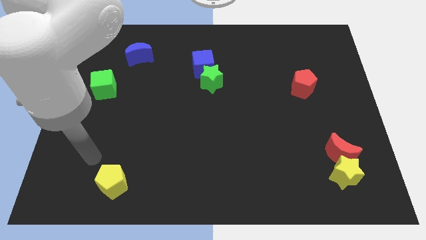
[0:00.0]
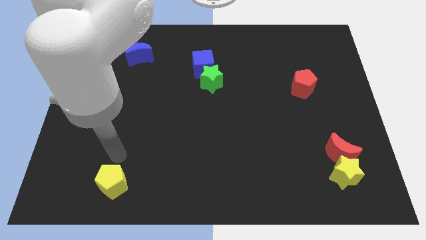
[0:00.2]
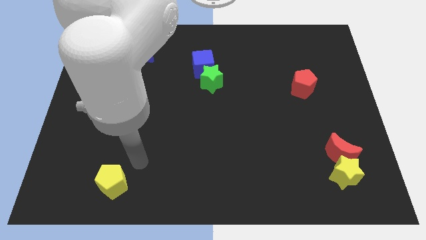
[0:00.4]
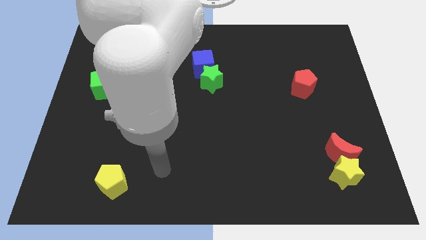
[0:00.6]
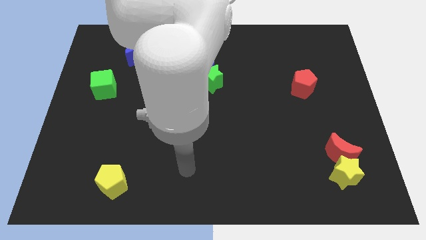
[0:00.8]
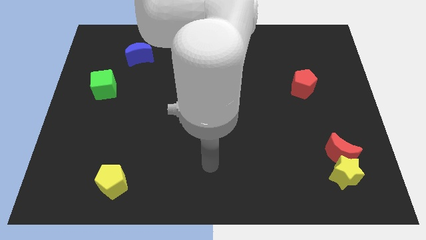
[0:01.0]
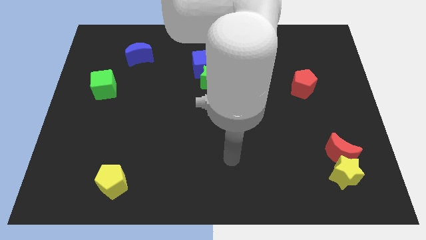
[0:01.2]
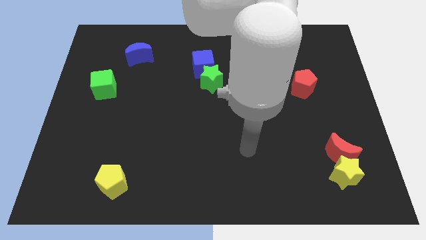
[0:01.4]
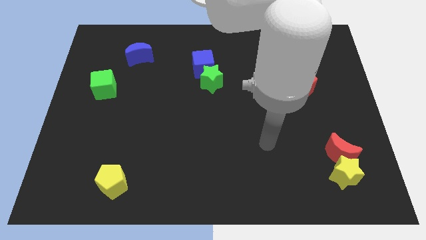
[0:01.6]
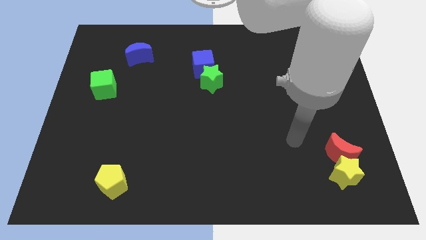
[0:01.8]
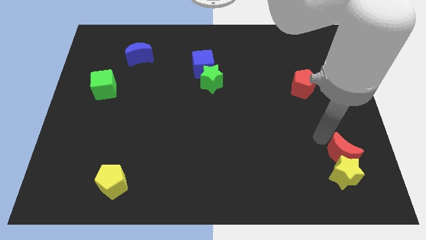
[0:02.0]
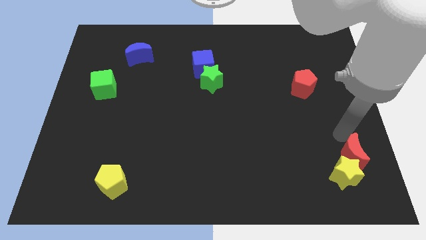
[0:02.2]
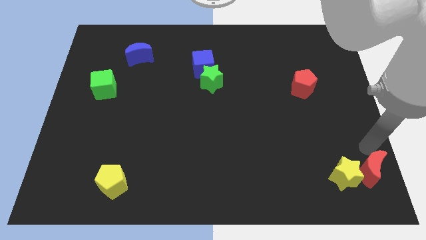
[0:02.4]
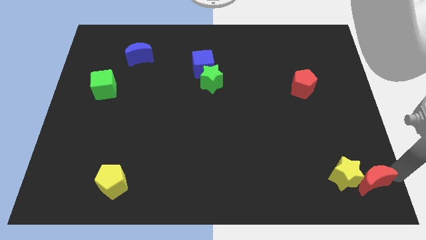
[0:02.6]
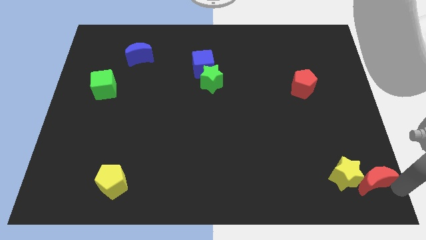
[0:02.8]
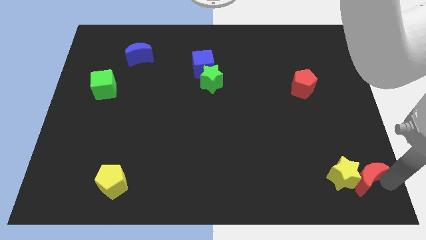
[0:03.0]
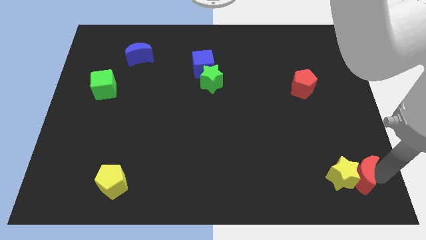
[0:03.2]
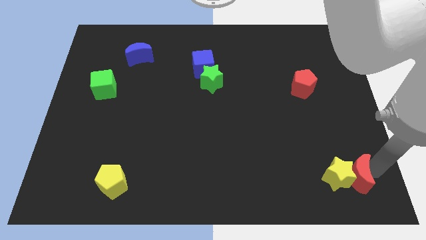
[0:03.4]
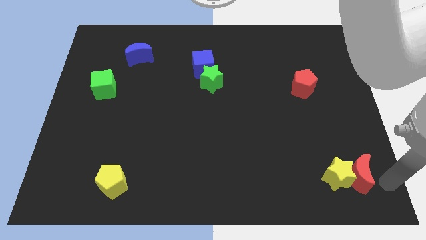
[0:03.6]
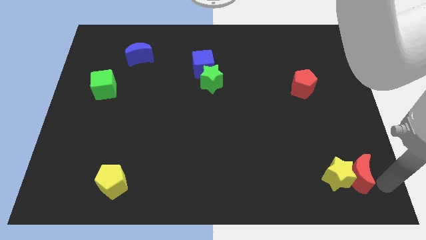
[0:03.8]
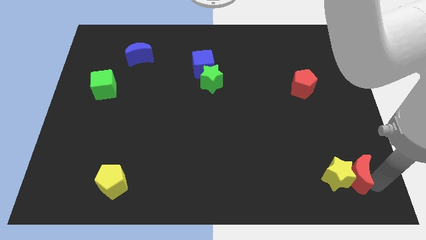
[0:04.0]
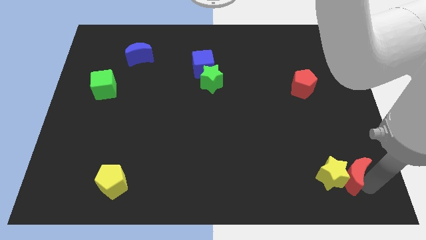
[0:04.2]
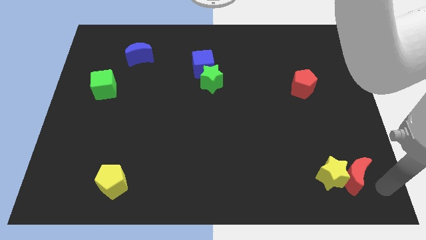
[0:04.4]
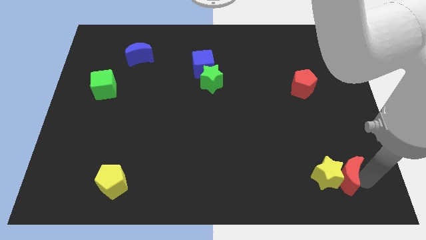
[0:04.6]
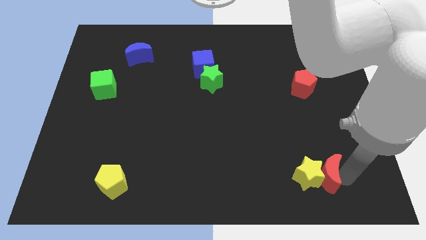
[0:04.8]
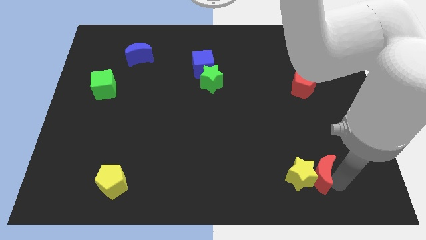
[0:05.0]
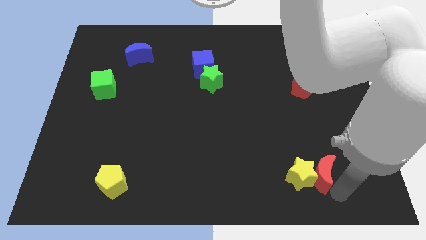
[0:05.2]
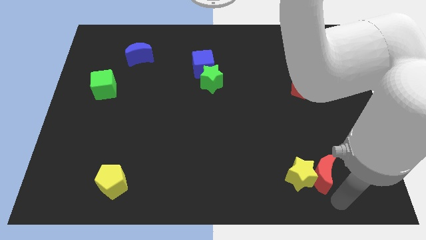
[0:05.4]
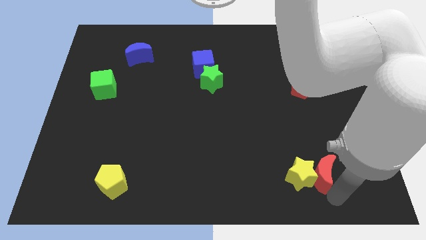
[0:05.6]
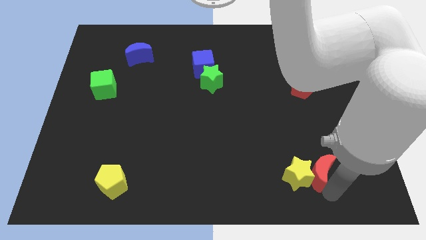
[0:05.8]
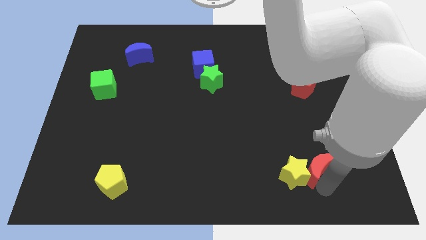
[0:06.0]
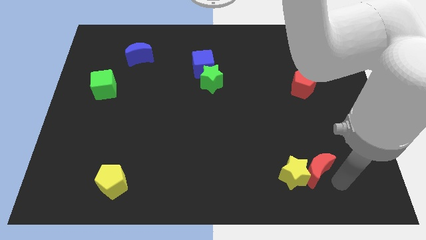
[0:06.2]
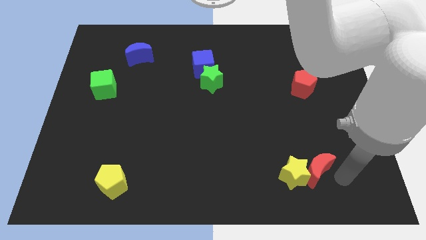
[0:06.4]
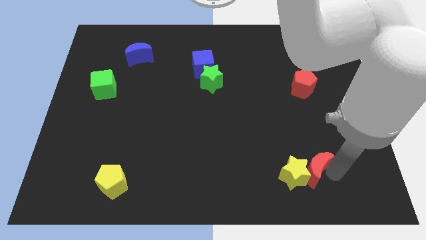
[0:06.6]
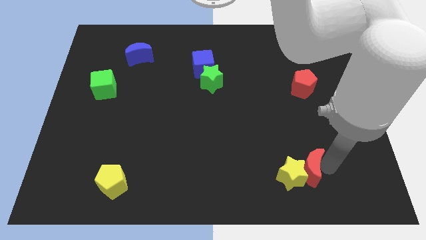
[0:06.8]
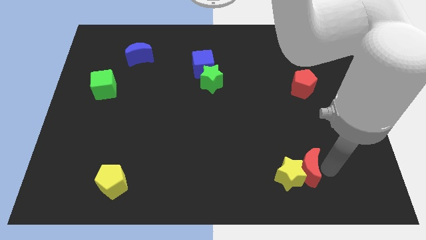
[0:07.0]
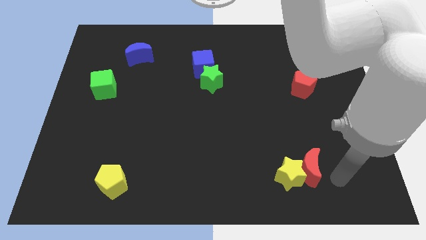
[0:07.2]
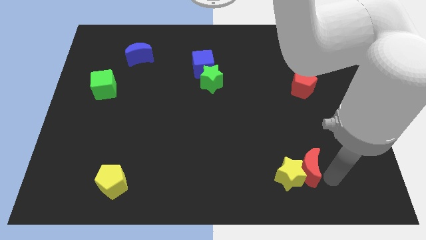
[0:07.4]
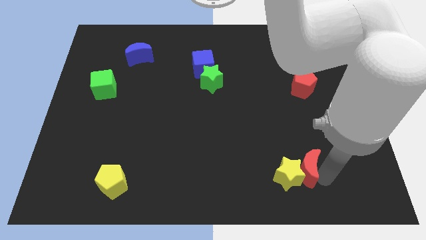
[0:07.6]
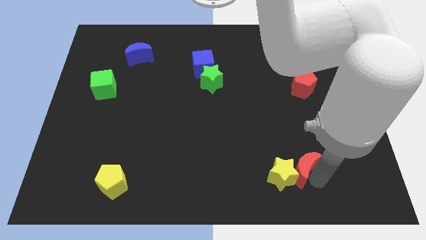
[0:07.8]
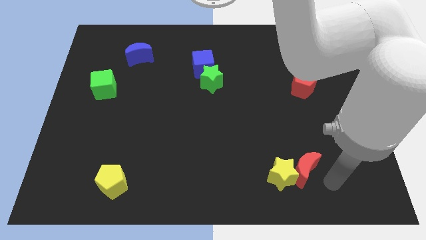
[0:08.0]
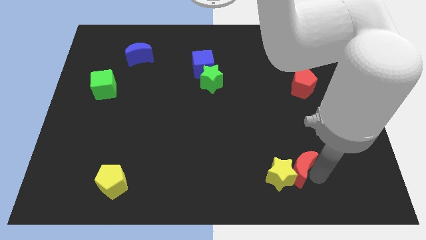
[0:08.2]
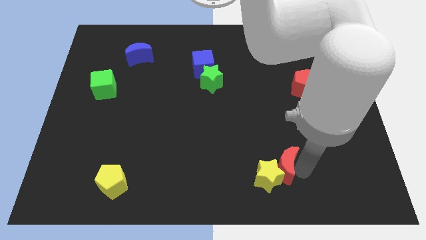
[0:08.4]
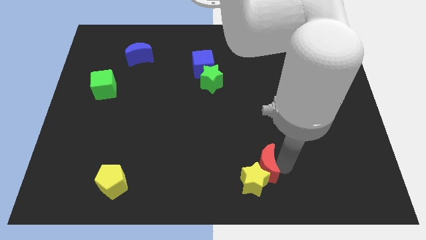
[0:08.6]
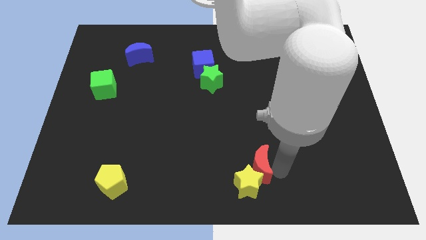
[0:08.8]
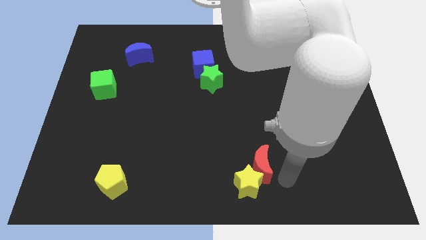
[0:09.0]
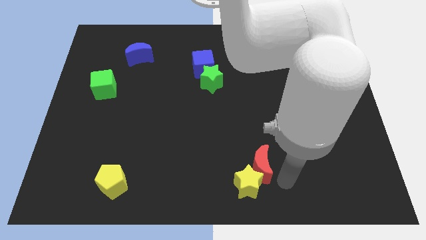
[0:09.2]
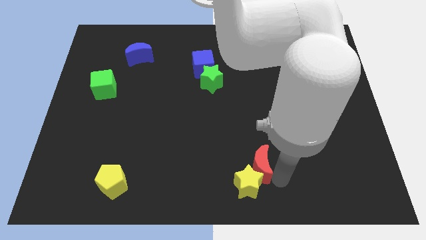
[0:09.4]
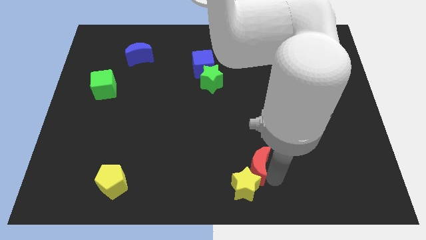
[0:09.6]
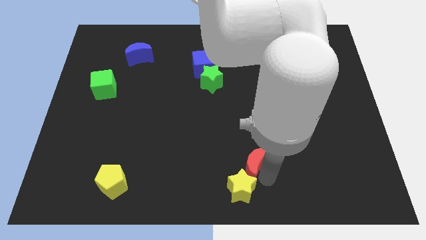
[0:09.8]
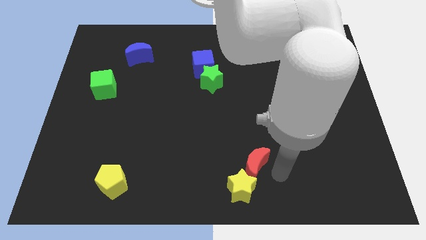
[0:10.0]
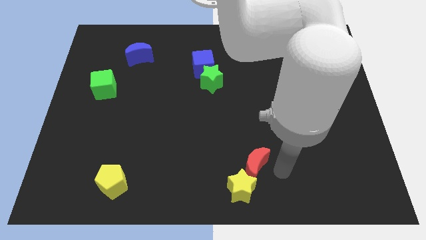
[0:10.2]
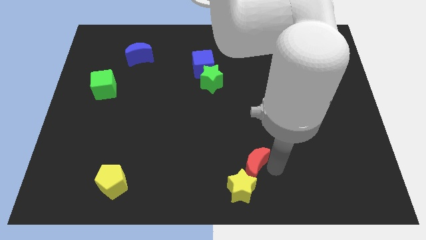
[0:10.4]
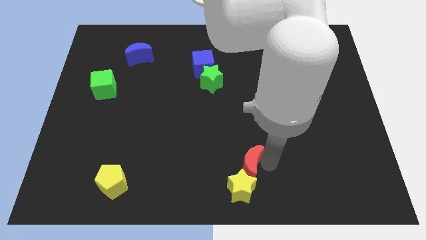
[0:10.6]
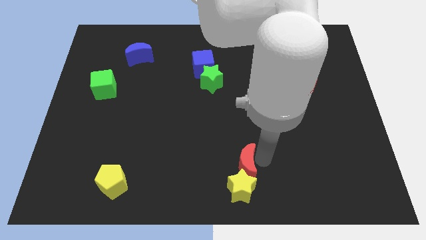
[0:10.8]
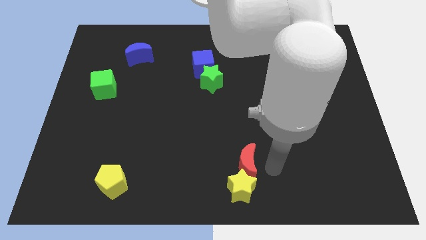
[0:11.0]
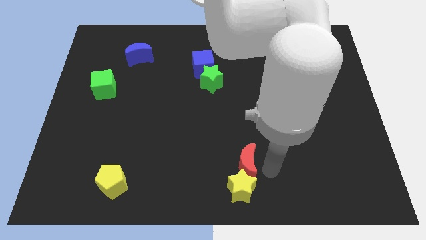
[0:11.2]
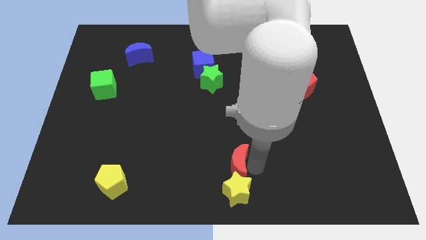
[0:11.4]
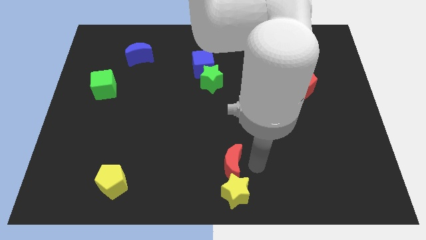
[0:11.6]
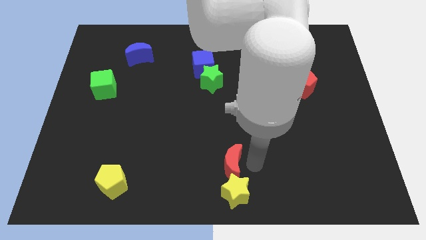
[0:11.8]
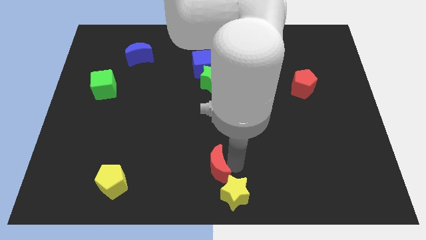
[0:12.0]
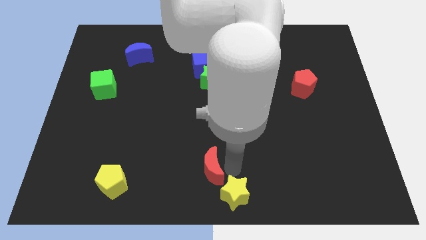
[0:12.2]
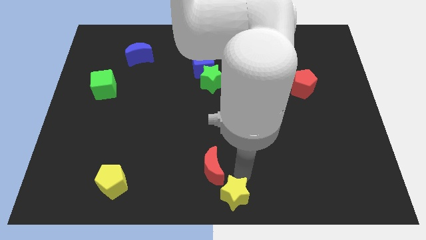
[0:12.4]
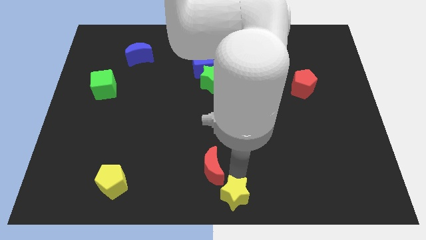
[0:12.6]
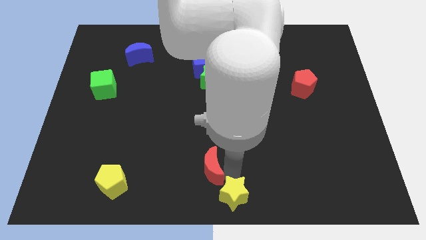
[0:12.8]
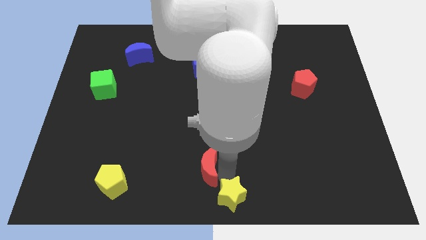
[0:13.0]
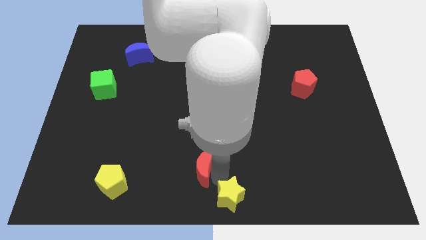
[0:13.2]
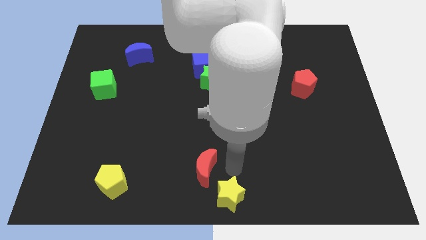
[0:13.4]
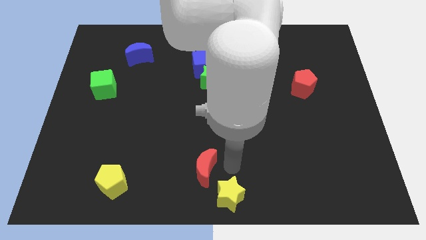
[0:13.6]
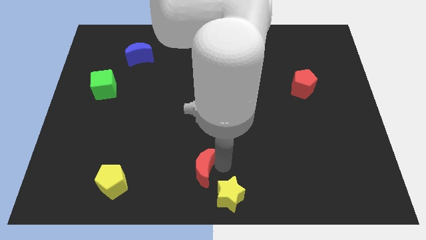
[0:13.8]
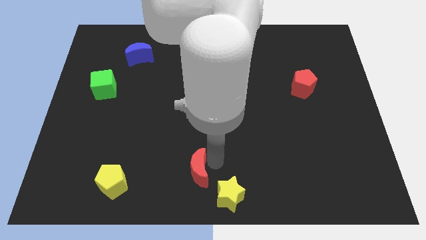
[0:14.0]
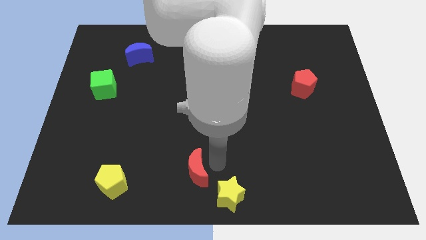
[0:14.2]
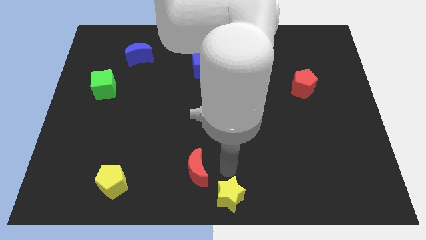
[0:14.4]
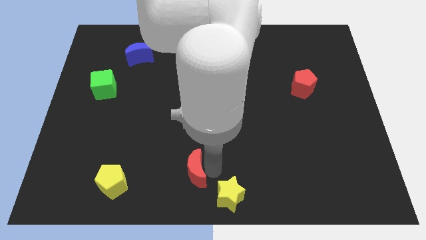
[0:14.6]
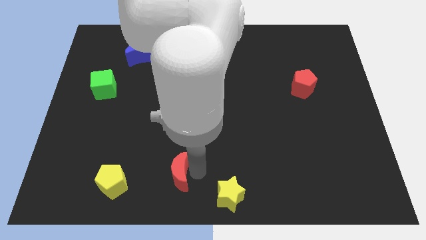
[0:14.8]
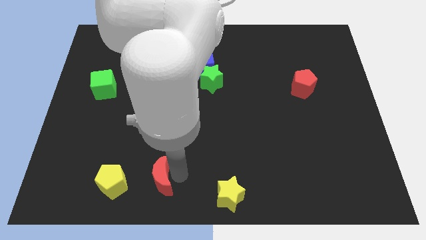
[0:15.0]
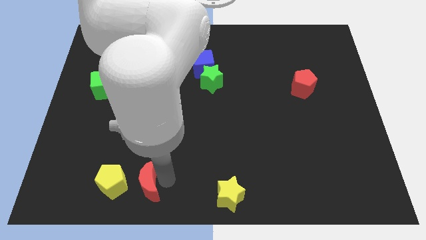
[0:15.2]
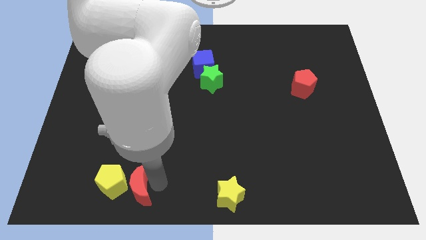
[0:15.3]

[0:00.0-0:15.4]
move the red moon next to the yellow pentagon
